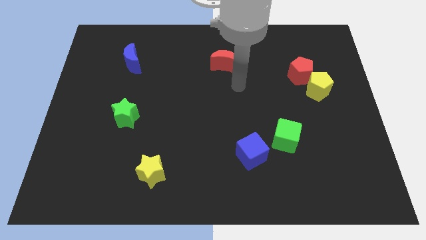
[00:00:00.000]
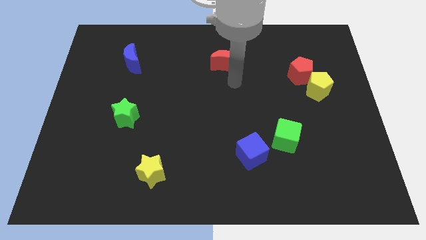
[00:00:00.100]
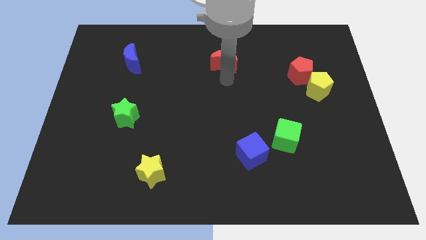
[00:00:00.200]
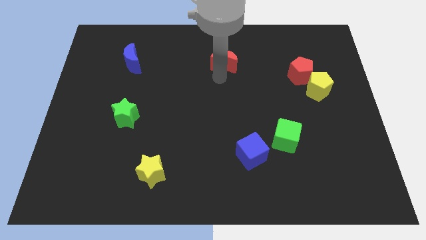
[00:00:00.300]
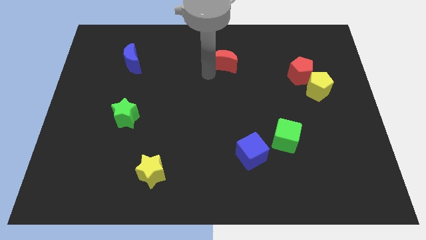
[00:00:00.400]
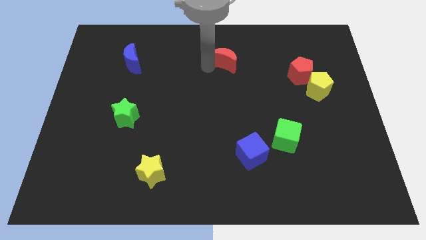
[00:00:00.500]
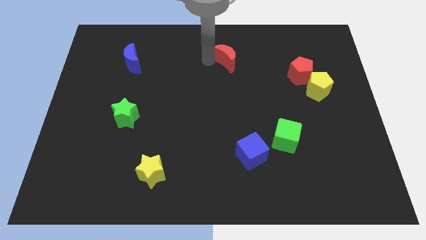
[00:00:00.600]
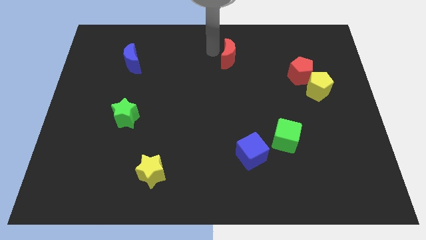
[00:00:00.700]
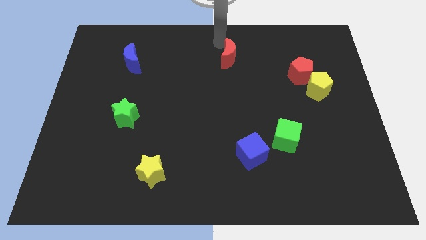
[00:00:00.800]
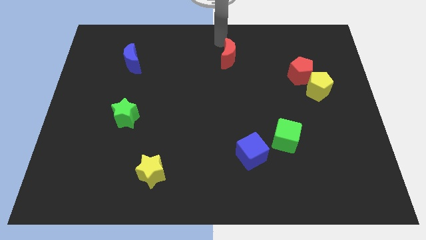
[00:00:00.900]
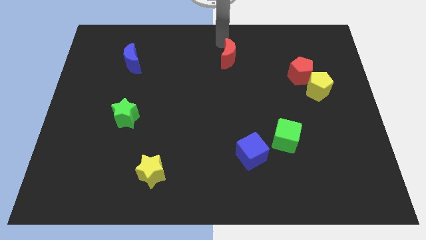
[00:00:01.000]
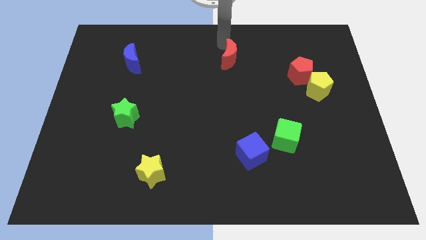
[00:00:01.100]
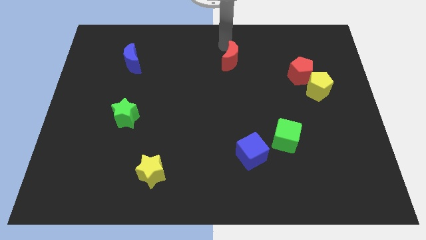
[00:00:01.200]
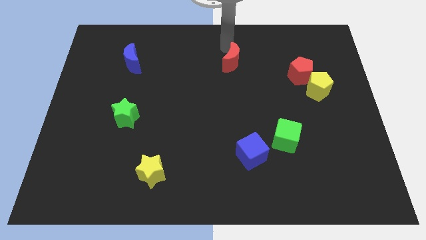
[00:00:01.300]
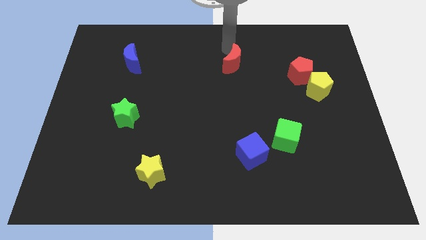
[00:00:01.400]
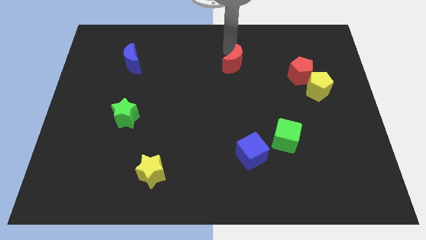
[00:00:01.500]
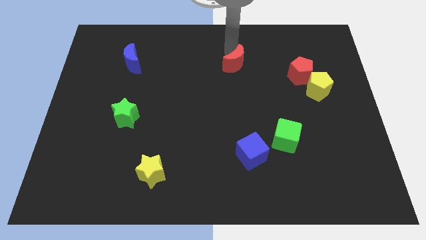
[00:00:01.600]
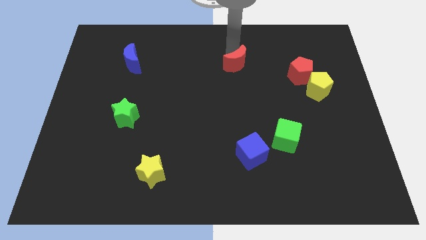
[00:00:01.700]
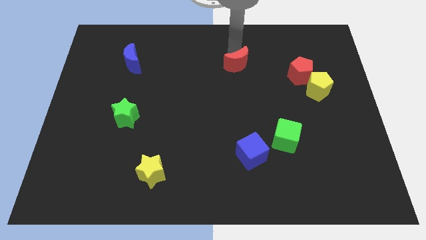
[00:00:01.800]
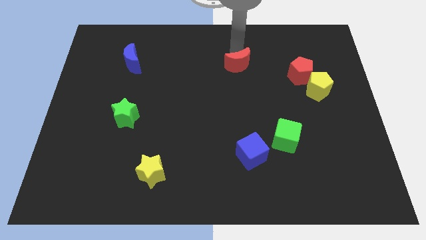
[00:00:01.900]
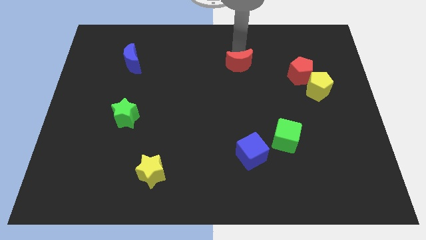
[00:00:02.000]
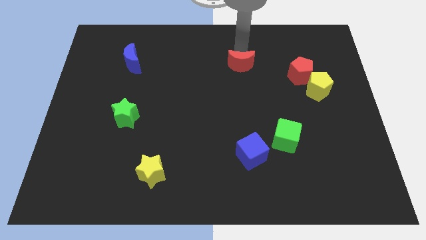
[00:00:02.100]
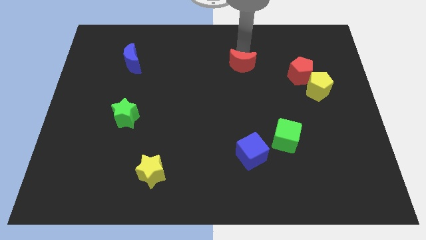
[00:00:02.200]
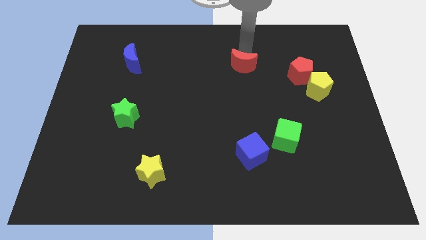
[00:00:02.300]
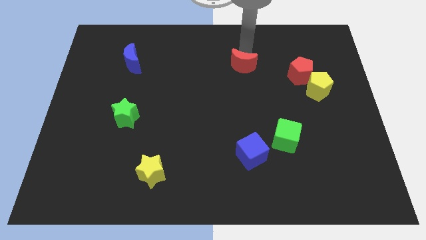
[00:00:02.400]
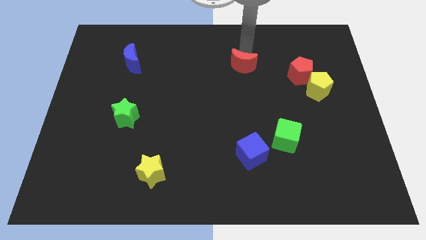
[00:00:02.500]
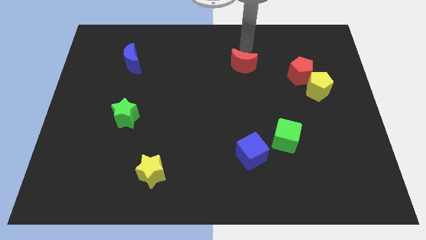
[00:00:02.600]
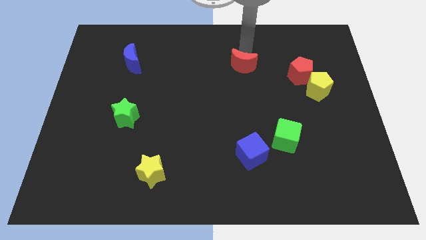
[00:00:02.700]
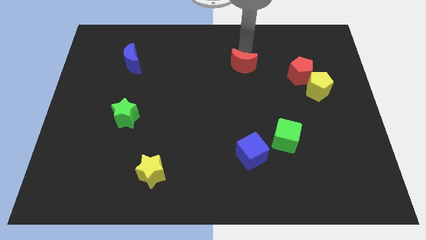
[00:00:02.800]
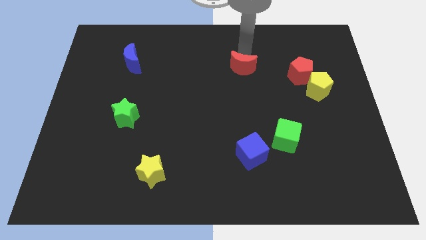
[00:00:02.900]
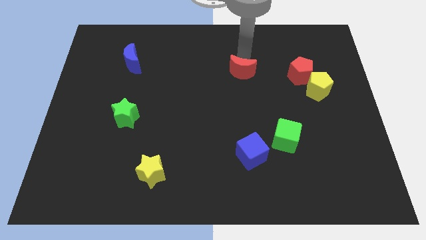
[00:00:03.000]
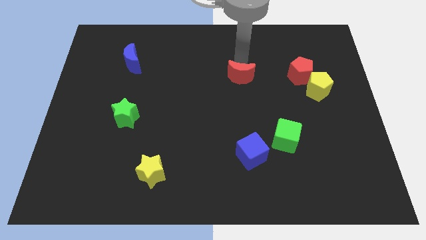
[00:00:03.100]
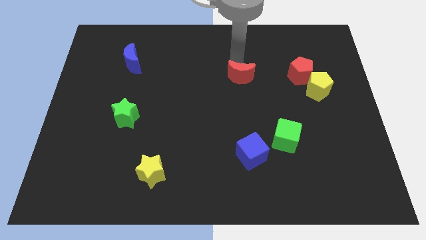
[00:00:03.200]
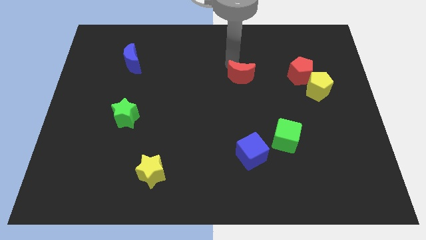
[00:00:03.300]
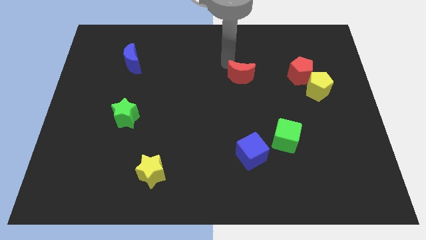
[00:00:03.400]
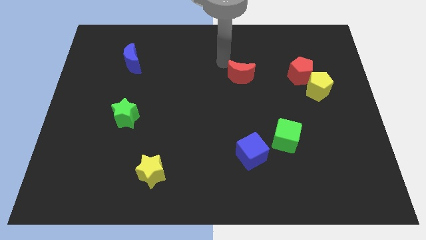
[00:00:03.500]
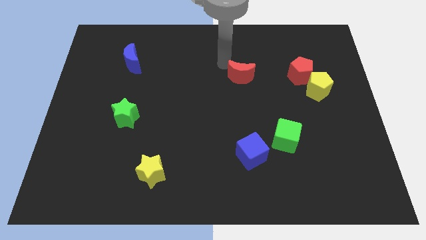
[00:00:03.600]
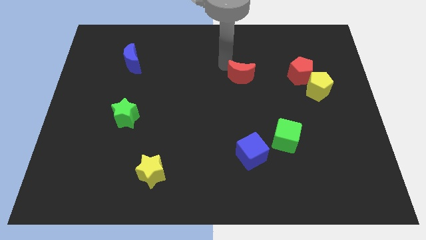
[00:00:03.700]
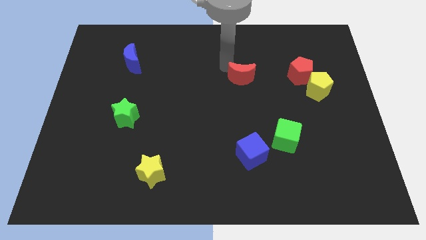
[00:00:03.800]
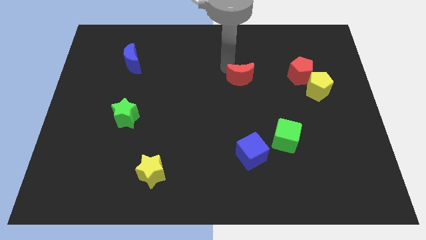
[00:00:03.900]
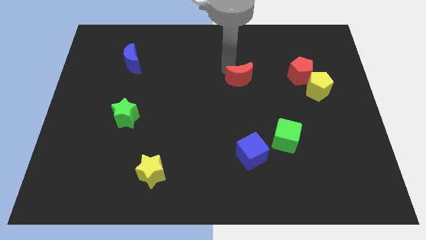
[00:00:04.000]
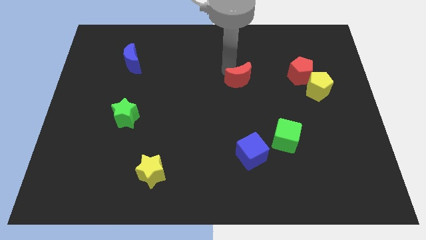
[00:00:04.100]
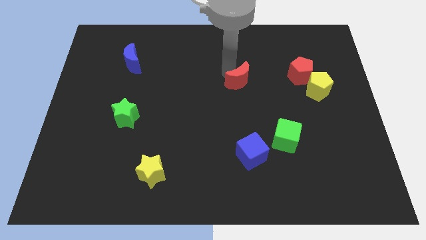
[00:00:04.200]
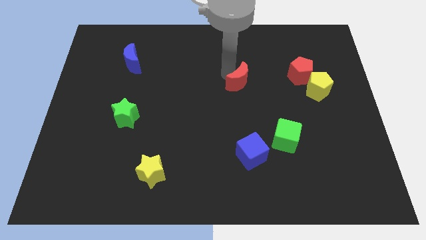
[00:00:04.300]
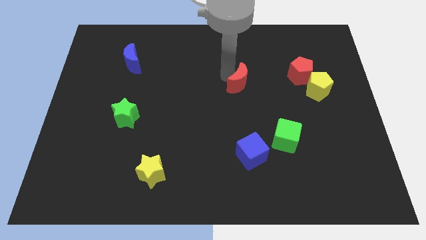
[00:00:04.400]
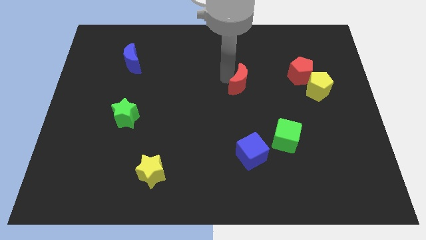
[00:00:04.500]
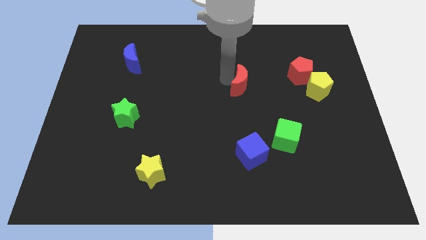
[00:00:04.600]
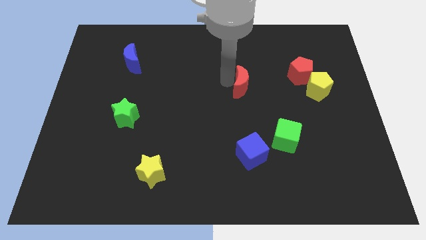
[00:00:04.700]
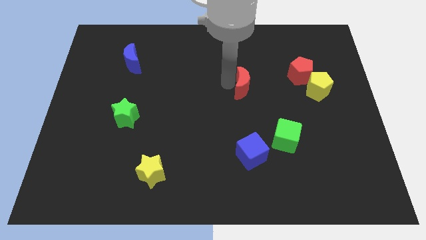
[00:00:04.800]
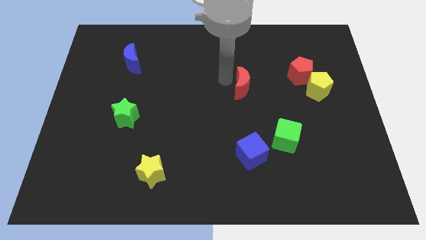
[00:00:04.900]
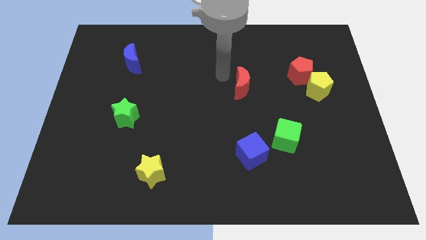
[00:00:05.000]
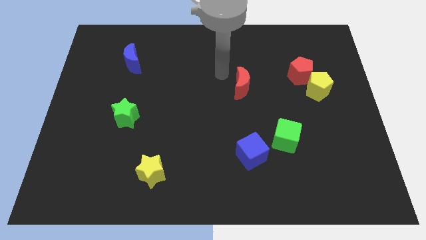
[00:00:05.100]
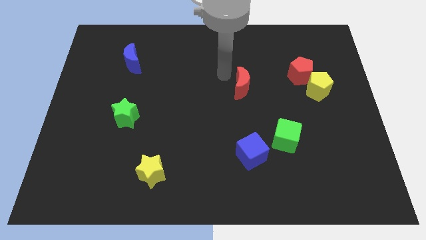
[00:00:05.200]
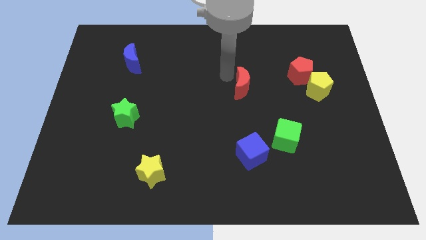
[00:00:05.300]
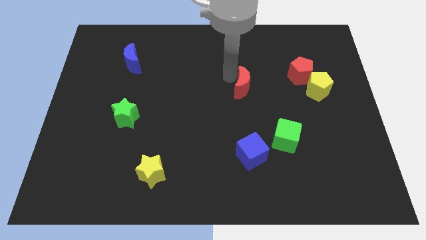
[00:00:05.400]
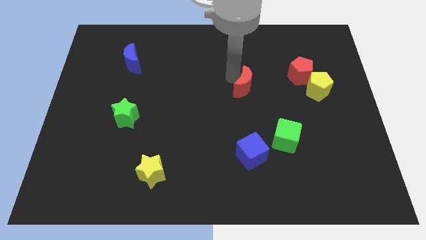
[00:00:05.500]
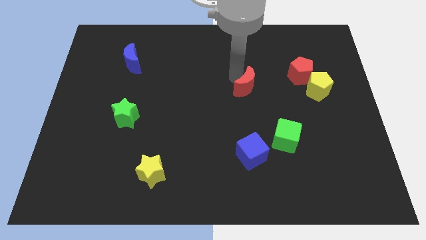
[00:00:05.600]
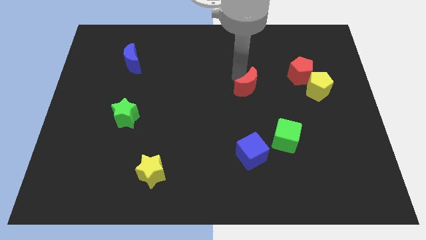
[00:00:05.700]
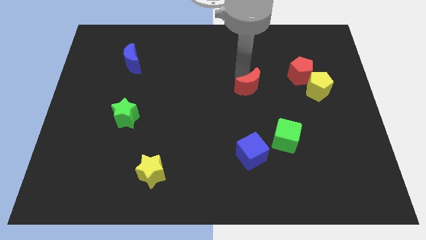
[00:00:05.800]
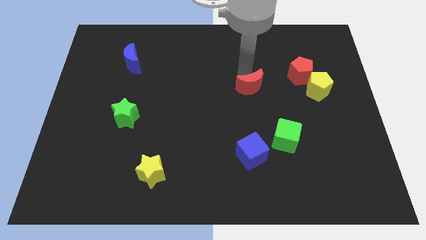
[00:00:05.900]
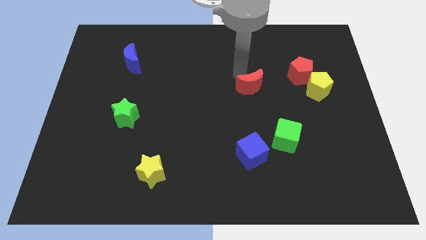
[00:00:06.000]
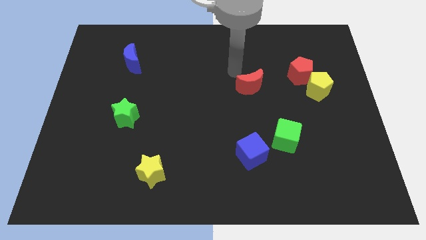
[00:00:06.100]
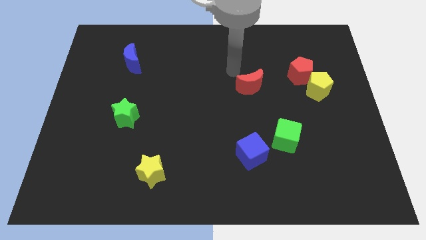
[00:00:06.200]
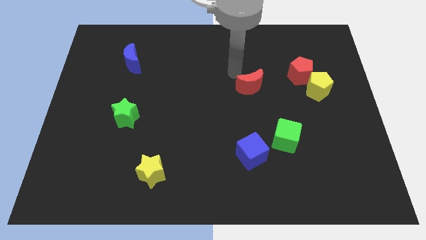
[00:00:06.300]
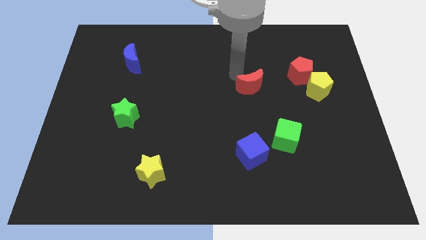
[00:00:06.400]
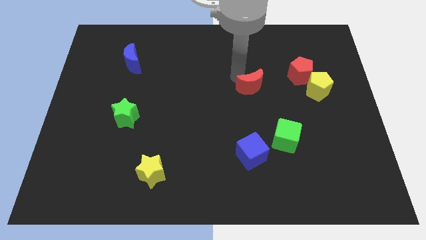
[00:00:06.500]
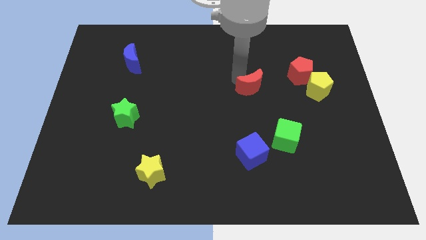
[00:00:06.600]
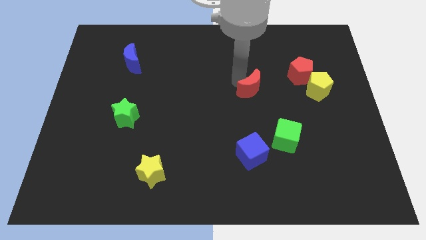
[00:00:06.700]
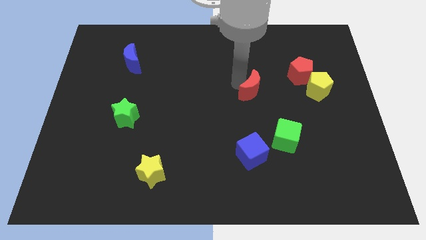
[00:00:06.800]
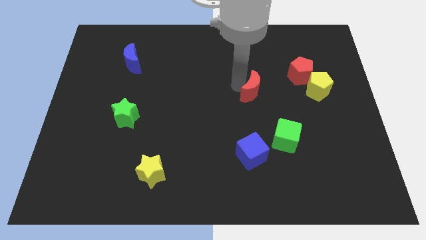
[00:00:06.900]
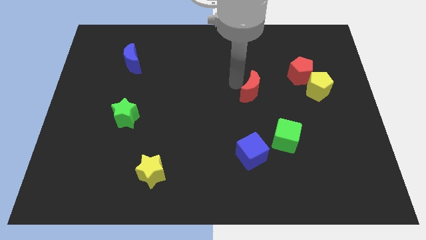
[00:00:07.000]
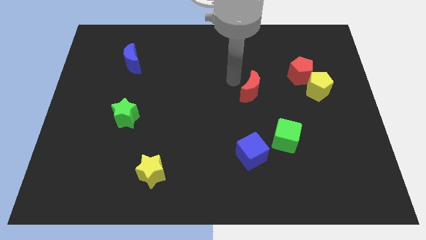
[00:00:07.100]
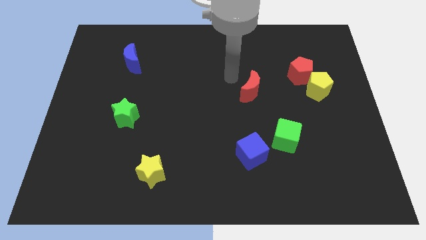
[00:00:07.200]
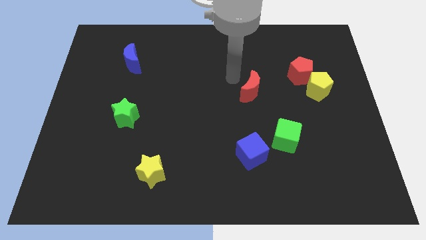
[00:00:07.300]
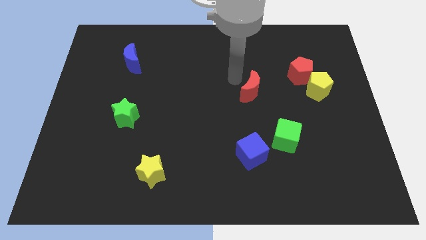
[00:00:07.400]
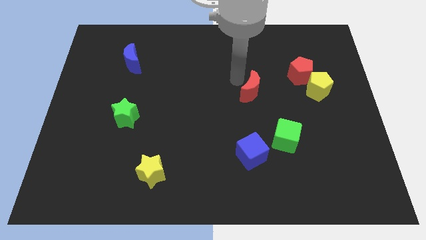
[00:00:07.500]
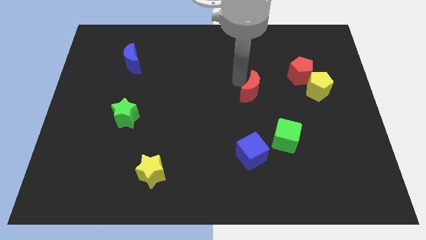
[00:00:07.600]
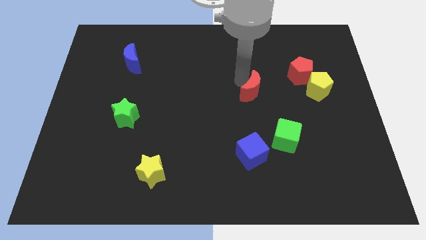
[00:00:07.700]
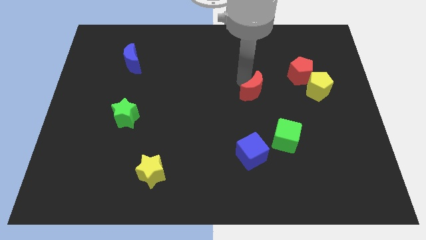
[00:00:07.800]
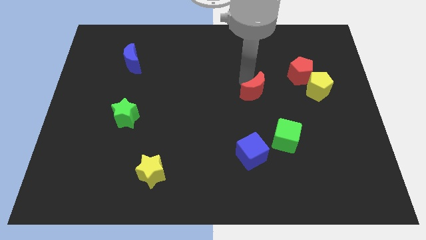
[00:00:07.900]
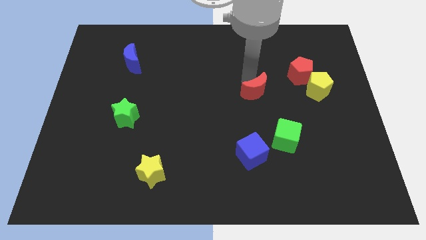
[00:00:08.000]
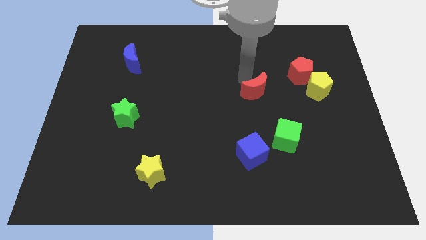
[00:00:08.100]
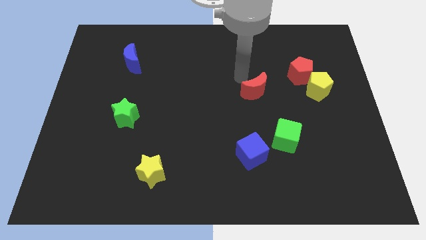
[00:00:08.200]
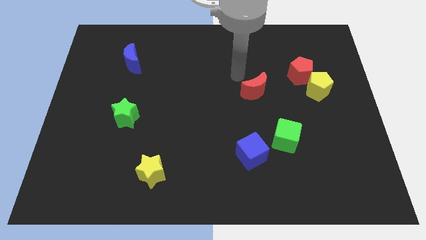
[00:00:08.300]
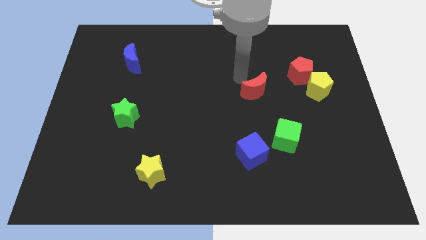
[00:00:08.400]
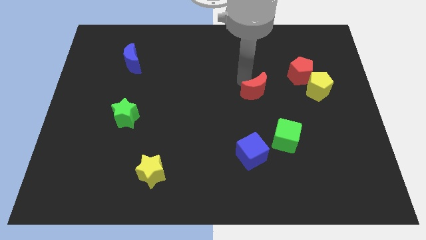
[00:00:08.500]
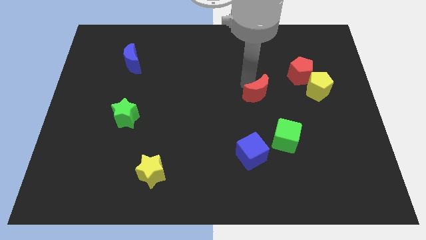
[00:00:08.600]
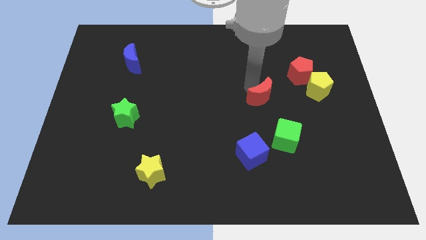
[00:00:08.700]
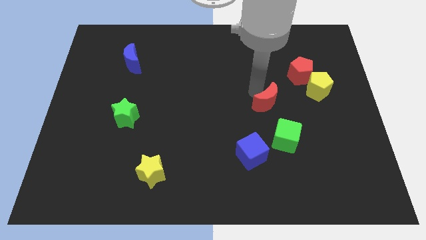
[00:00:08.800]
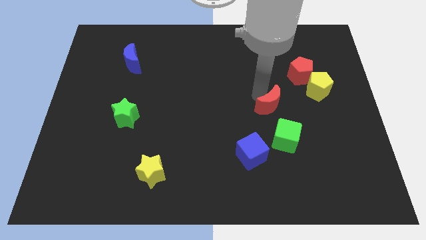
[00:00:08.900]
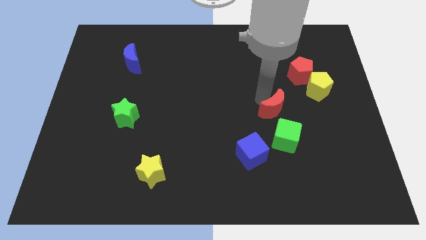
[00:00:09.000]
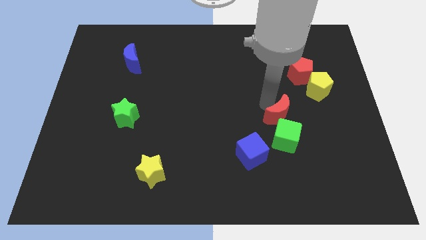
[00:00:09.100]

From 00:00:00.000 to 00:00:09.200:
push the red moon downwards and to the right
